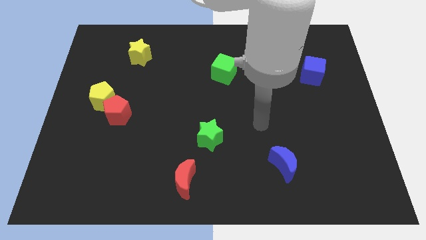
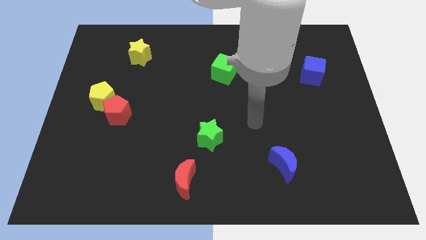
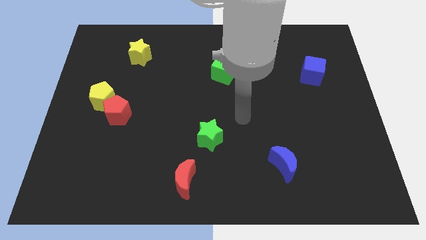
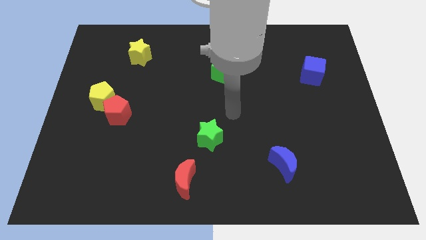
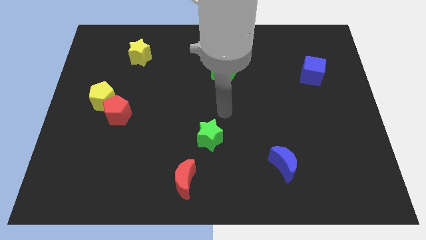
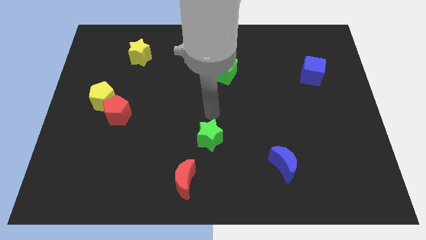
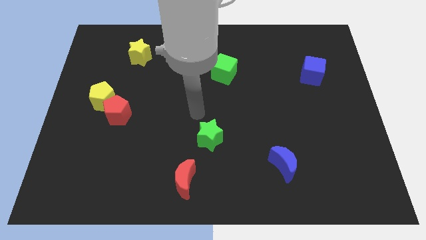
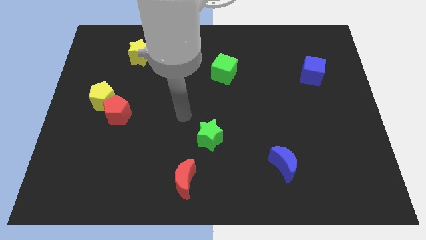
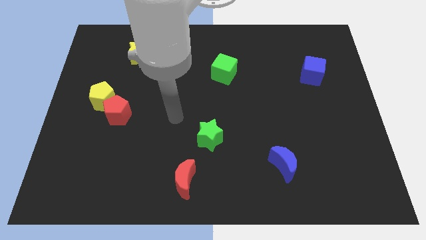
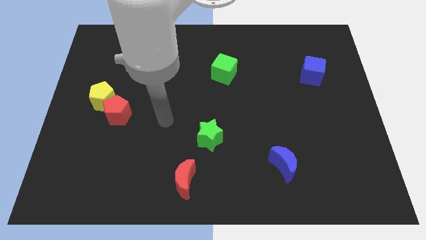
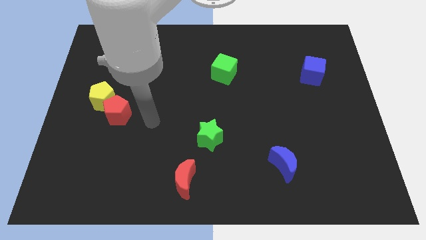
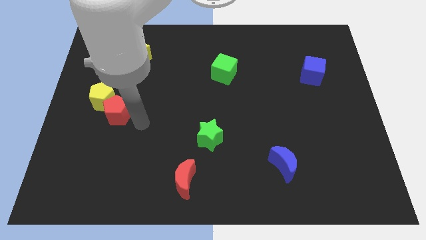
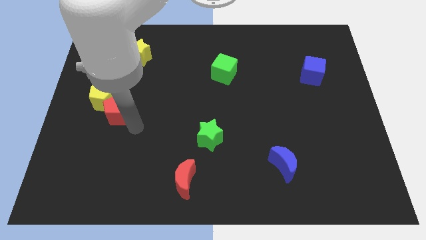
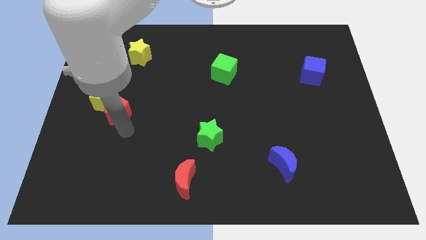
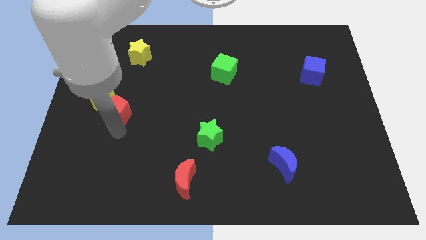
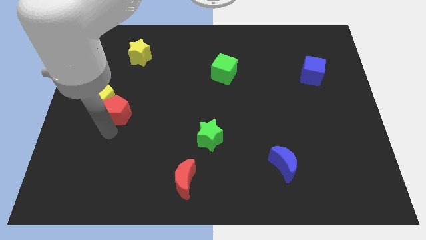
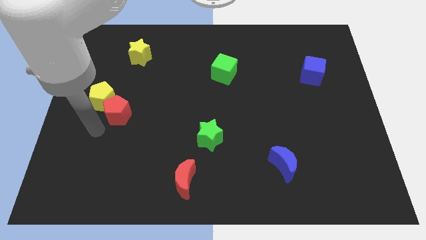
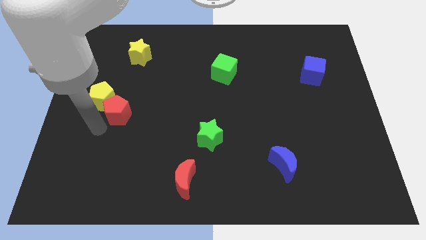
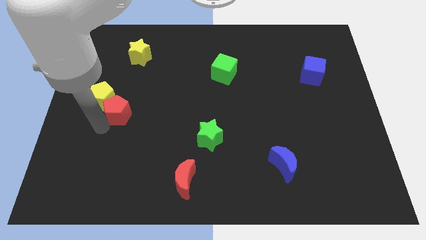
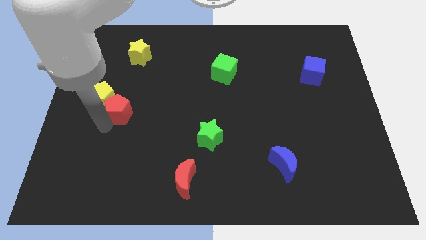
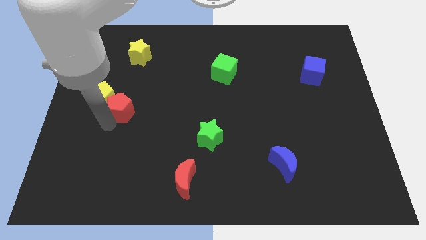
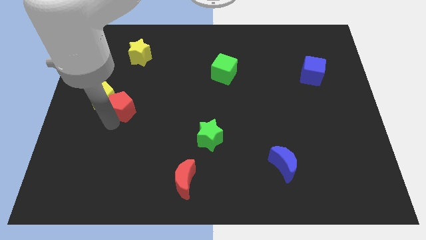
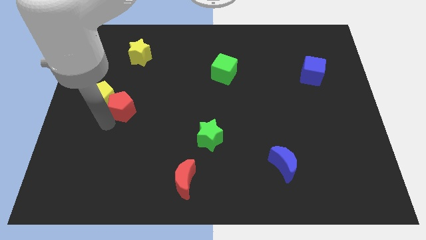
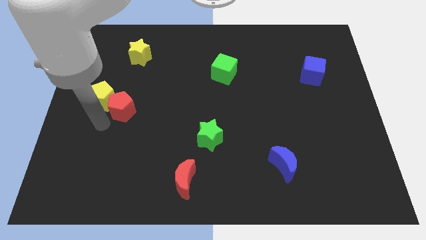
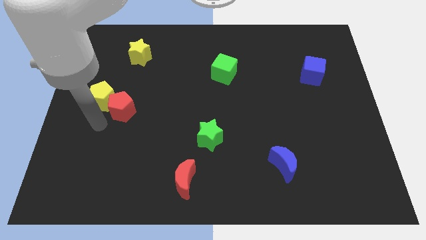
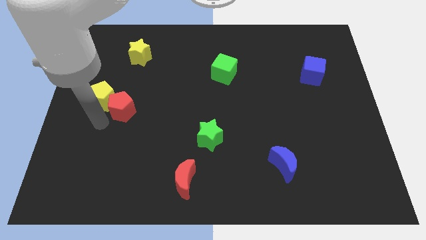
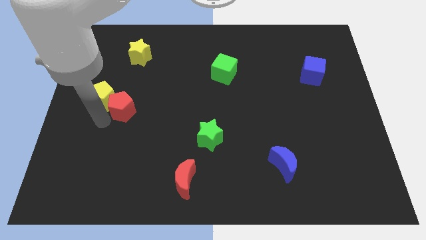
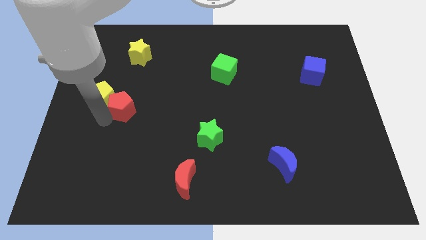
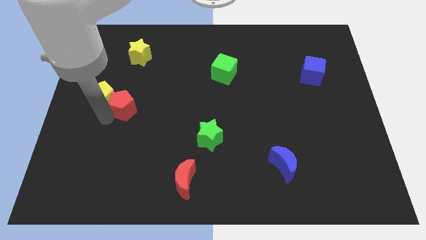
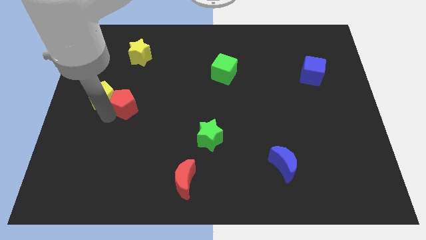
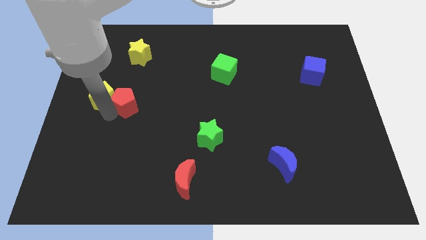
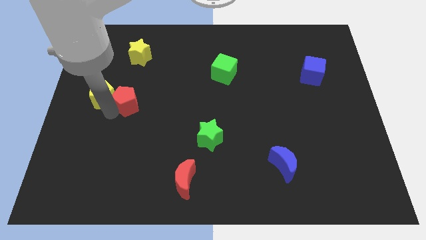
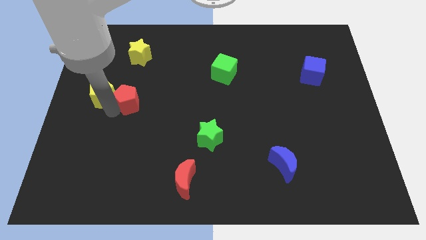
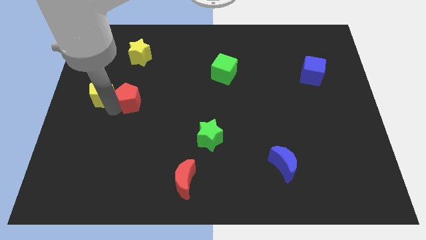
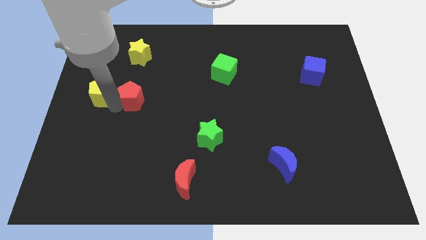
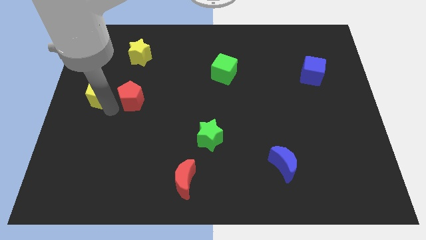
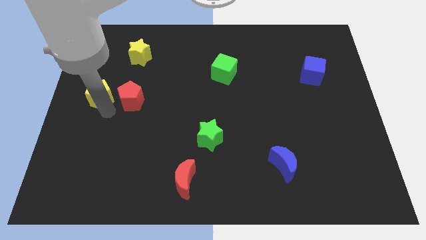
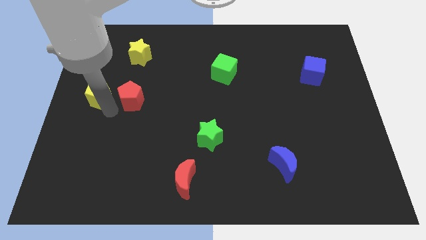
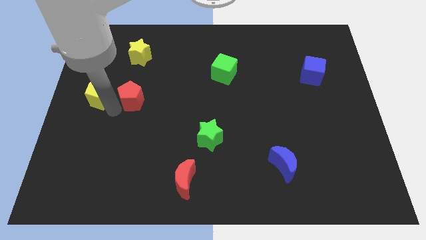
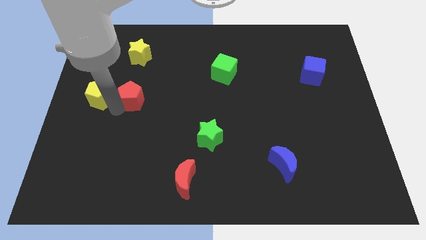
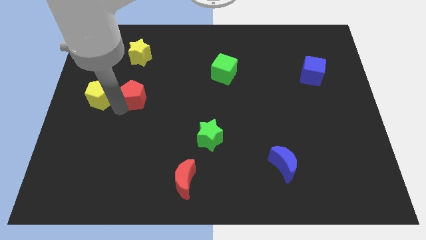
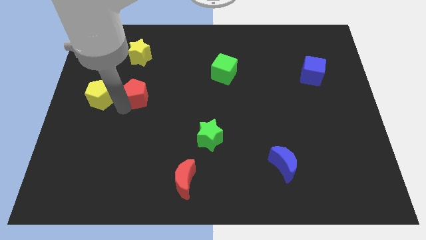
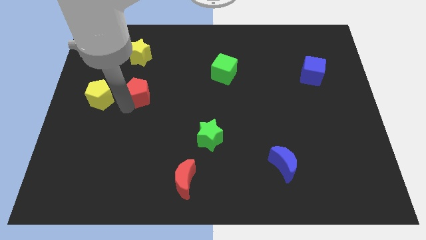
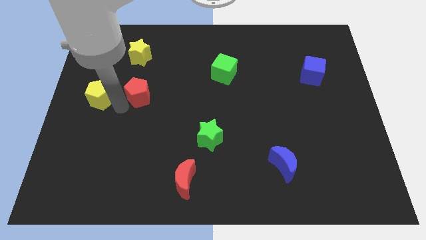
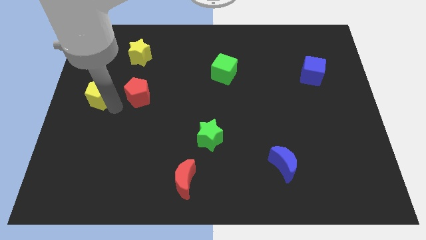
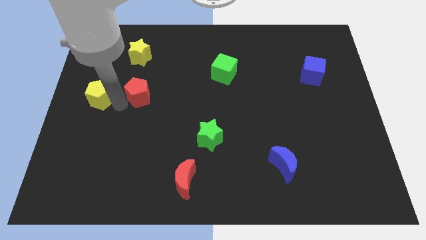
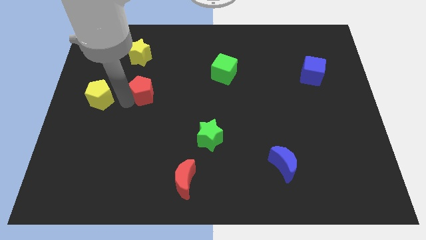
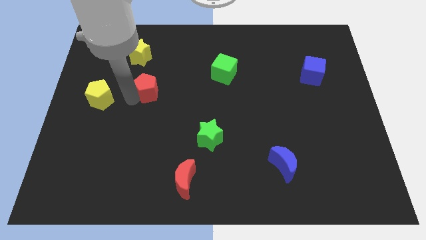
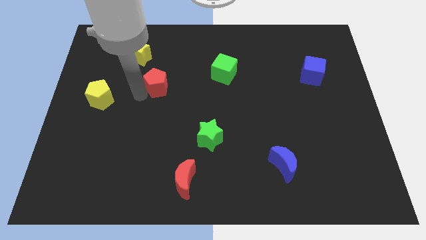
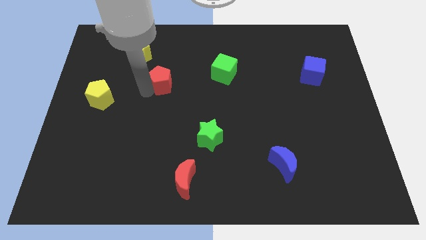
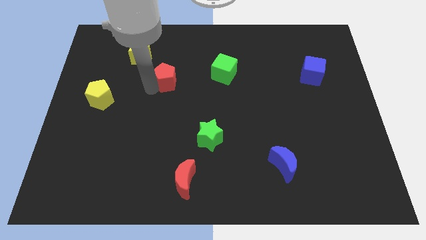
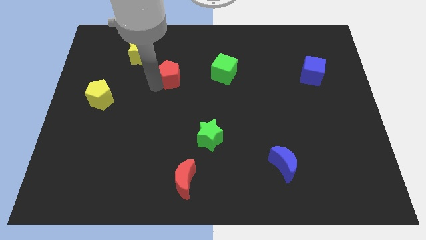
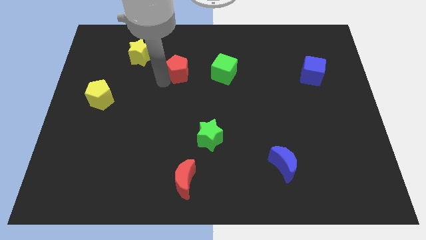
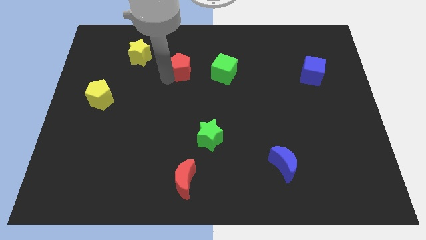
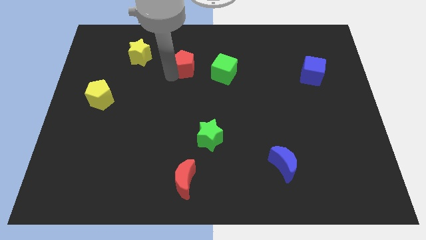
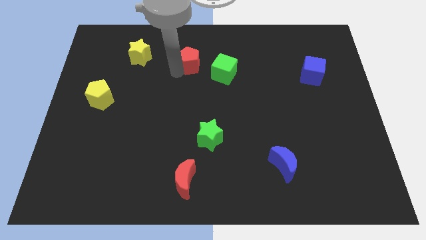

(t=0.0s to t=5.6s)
slide the red pentagon diagonally up and to the left of the green cube

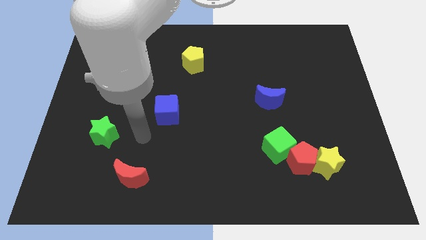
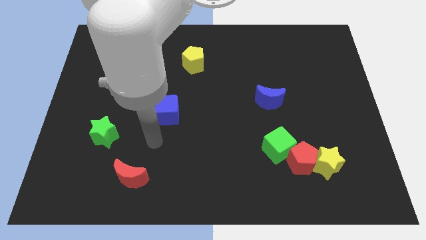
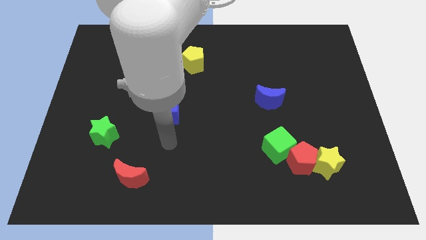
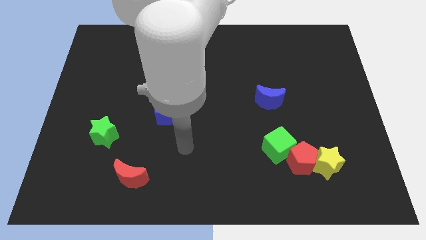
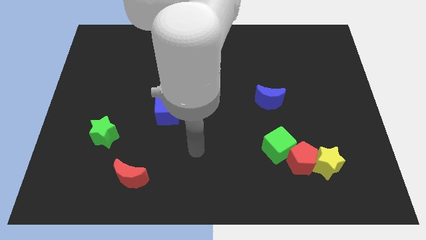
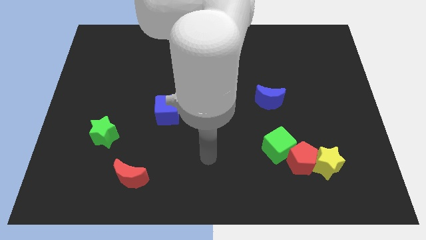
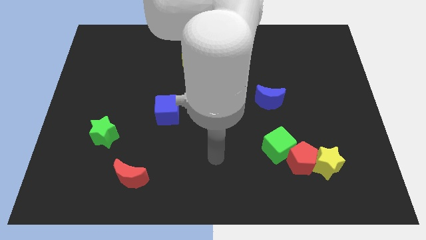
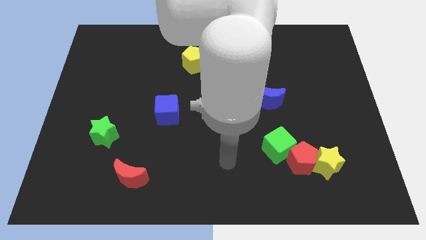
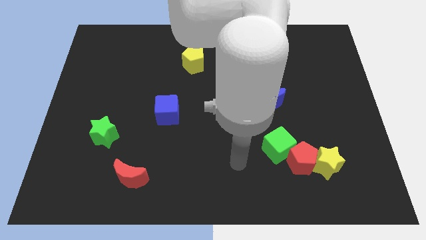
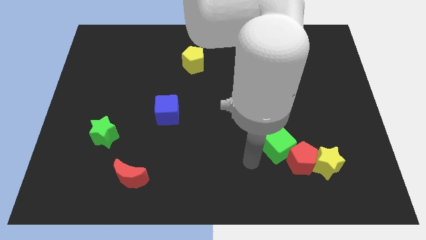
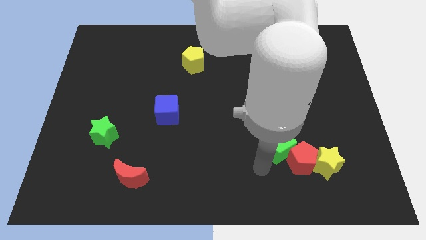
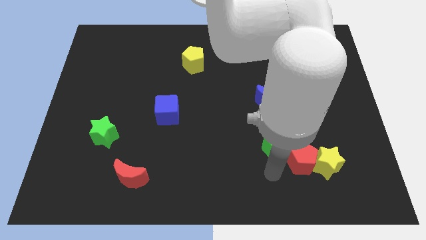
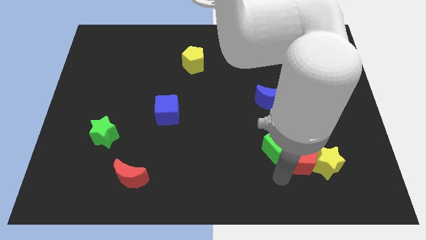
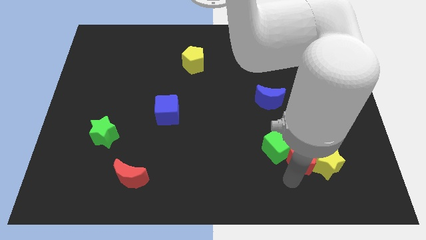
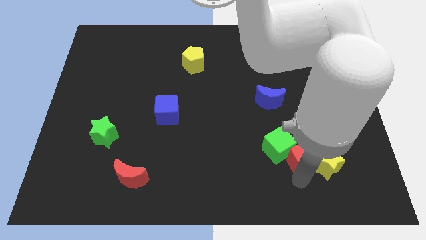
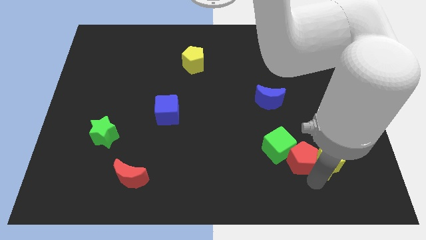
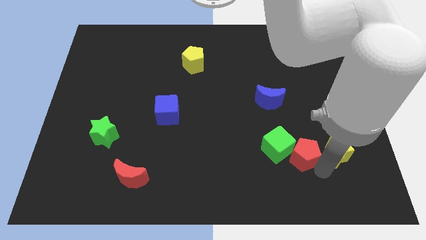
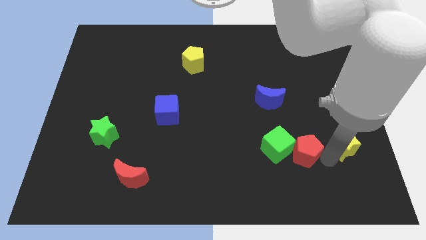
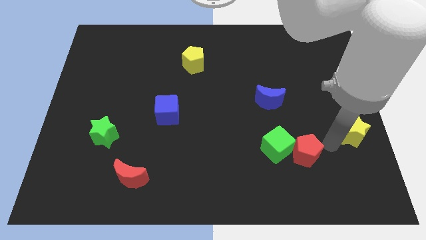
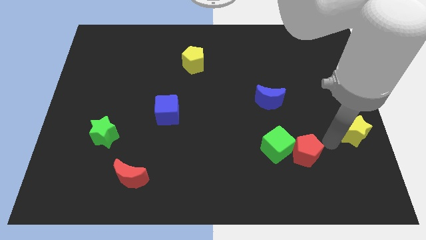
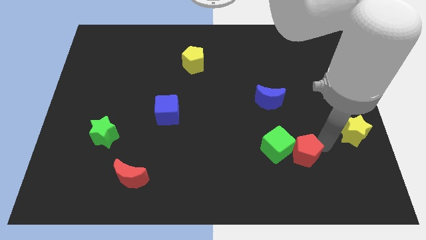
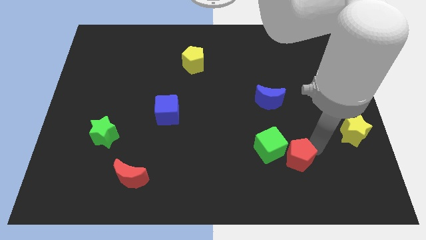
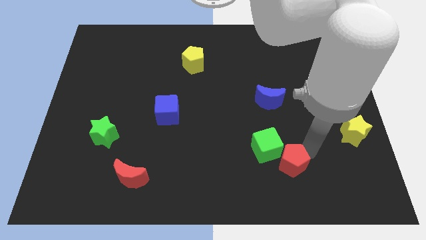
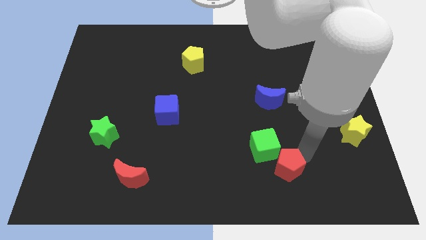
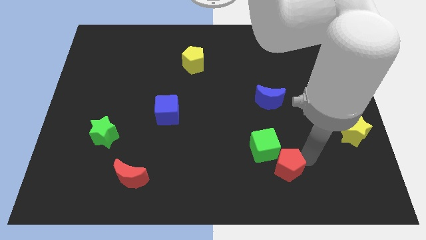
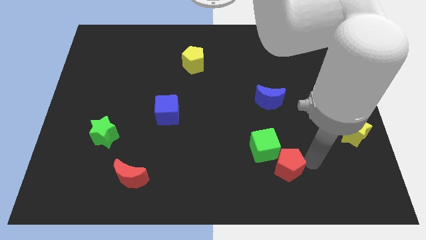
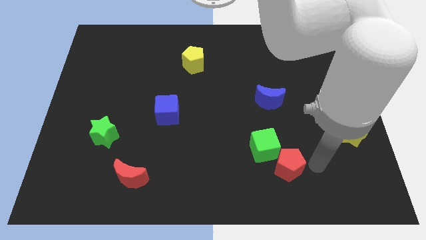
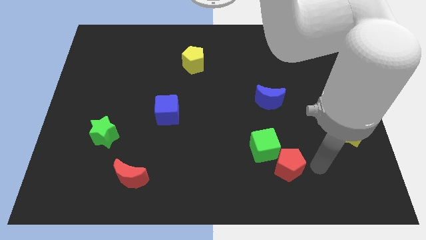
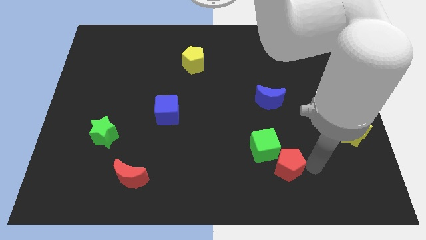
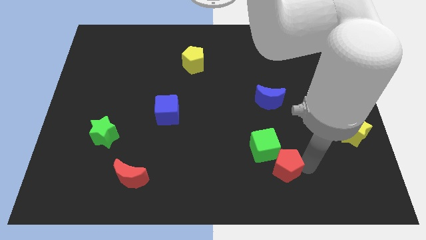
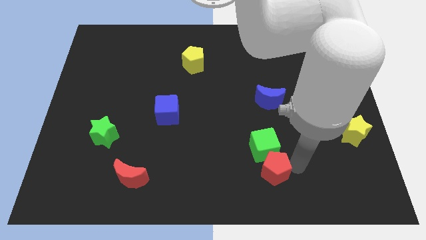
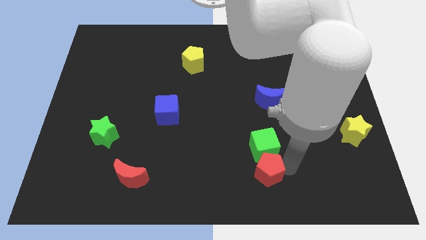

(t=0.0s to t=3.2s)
put the red pentagon to the bottom left side of the green cube
